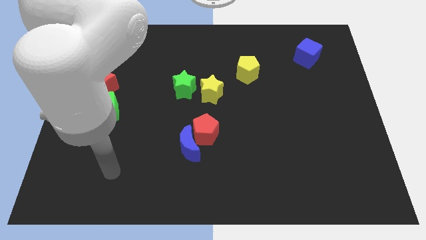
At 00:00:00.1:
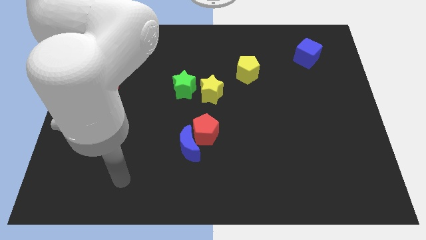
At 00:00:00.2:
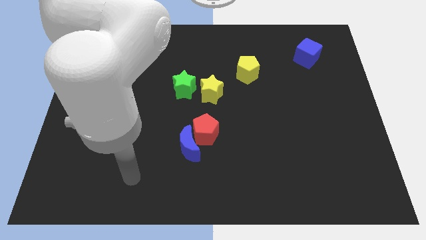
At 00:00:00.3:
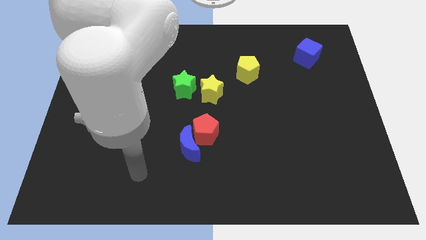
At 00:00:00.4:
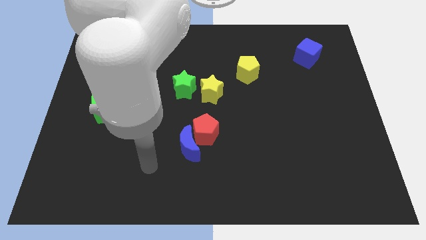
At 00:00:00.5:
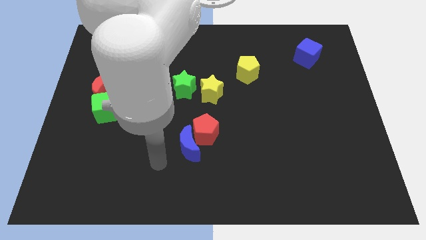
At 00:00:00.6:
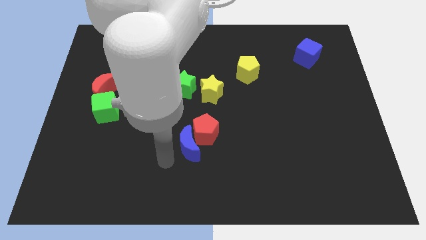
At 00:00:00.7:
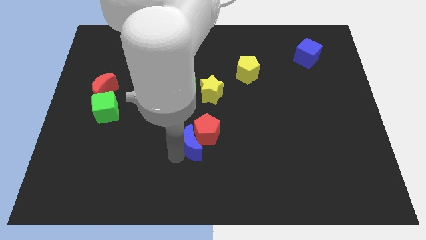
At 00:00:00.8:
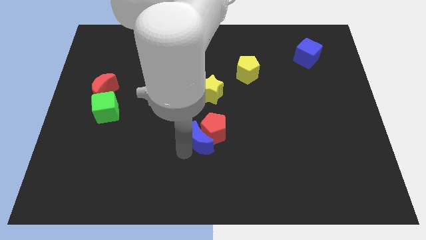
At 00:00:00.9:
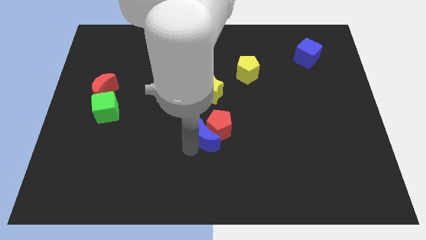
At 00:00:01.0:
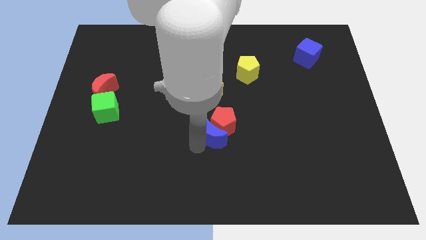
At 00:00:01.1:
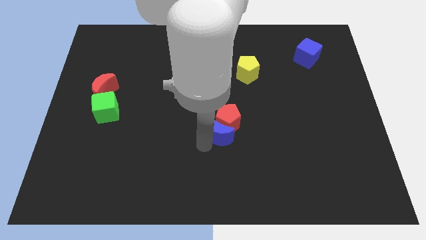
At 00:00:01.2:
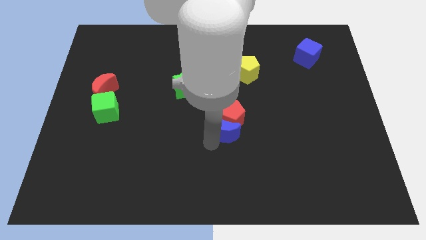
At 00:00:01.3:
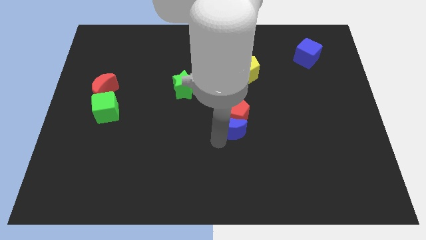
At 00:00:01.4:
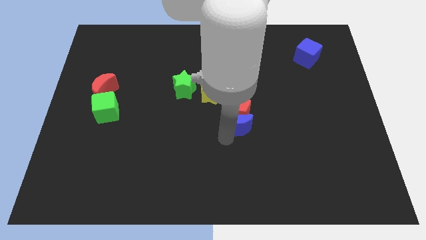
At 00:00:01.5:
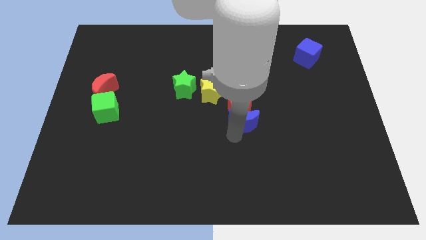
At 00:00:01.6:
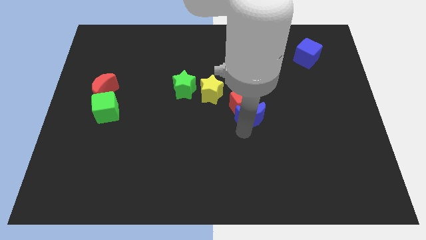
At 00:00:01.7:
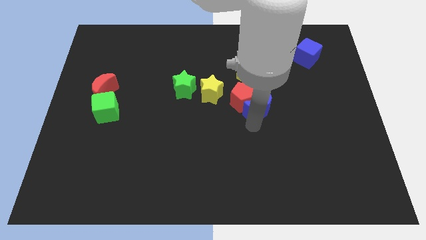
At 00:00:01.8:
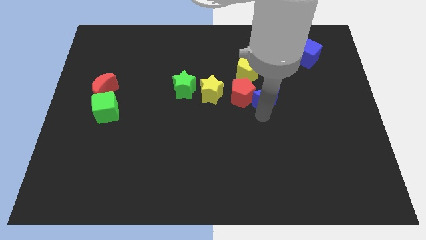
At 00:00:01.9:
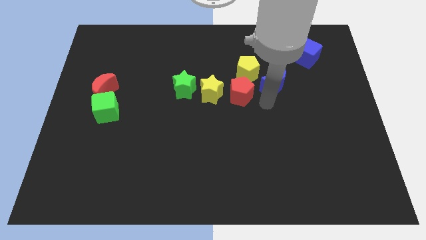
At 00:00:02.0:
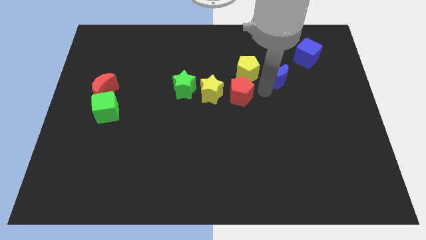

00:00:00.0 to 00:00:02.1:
pull the red pentagon apart from the blue moon

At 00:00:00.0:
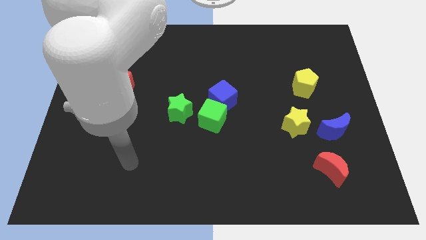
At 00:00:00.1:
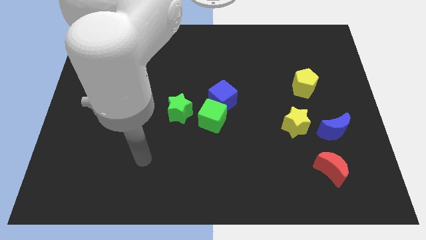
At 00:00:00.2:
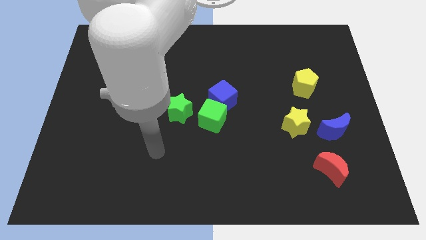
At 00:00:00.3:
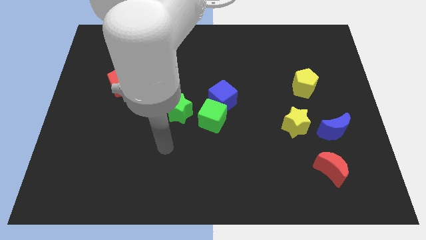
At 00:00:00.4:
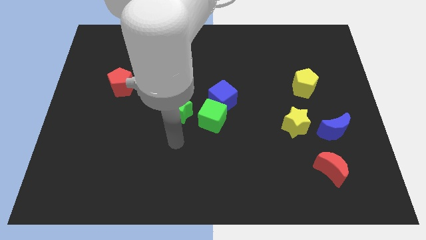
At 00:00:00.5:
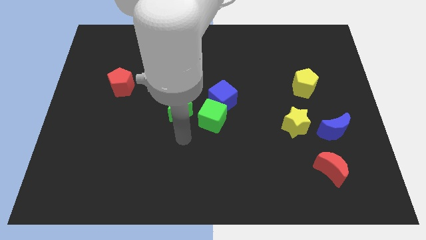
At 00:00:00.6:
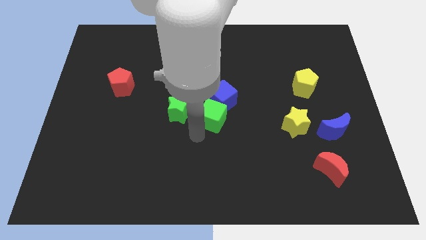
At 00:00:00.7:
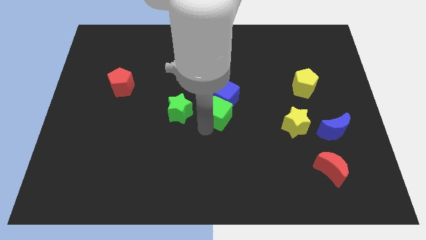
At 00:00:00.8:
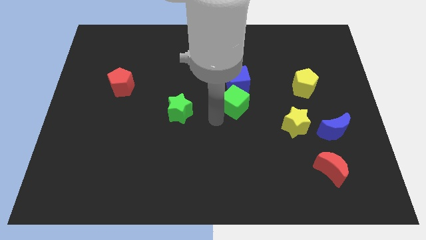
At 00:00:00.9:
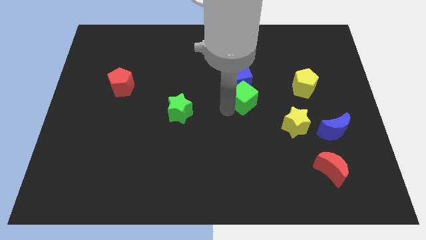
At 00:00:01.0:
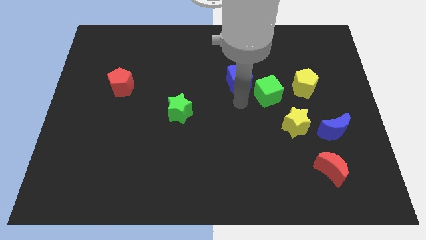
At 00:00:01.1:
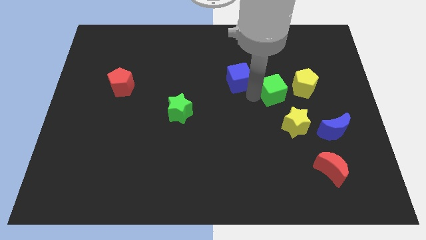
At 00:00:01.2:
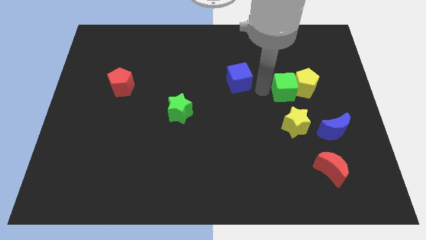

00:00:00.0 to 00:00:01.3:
separate the blue cube from the green cube

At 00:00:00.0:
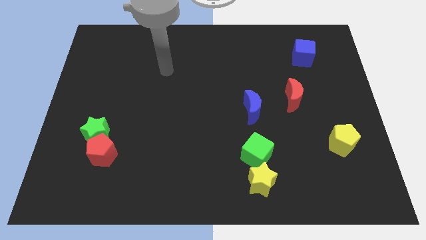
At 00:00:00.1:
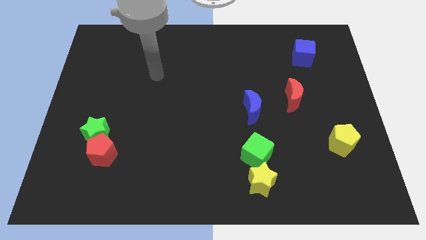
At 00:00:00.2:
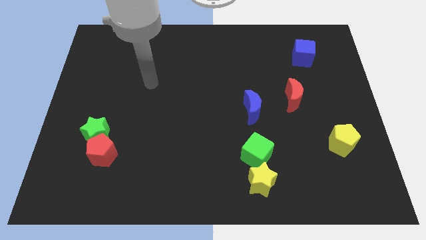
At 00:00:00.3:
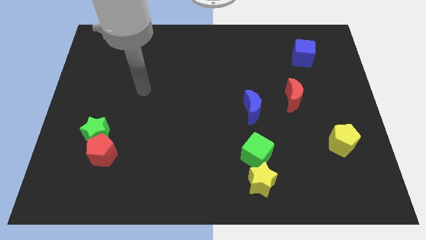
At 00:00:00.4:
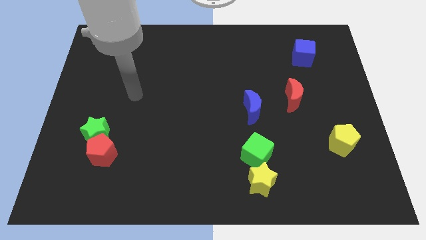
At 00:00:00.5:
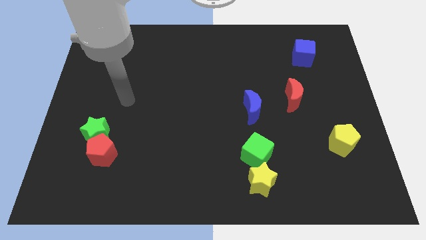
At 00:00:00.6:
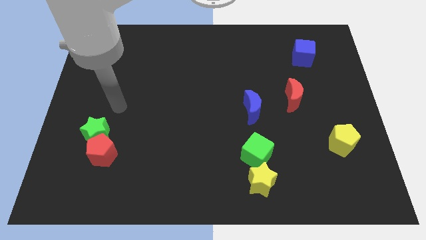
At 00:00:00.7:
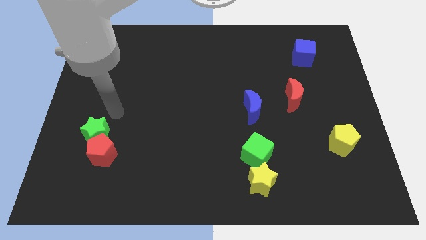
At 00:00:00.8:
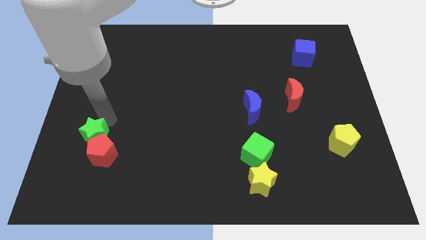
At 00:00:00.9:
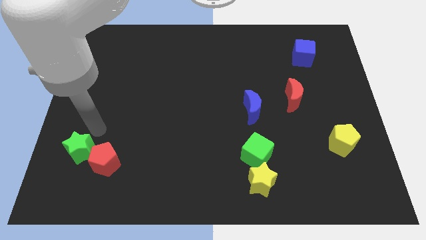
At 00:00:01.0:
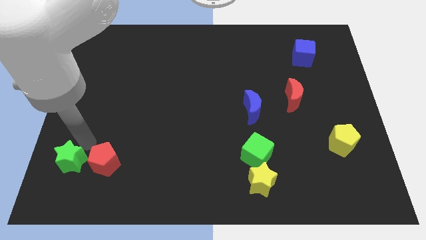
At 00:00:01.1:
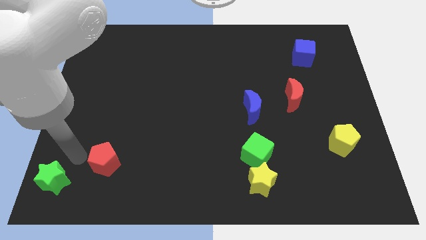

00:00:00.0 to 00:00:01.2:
move the red pentagon away from the green star

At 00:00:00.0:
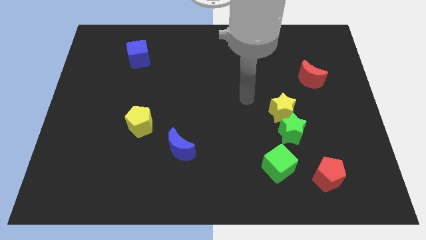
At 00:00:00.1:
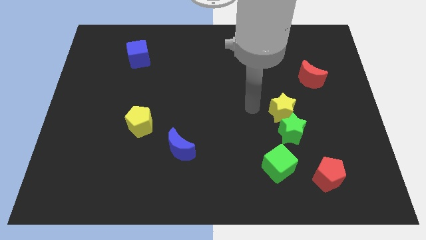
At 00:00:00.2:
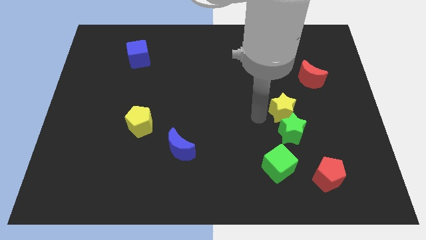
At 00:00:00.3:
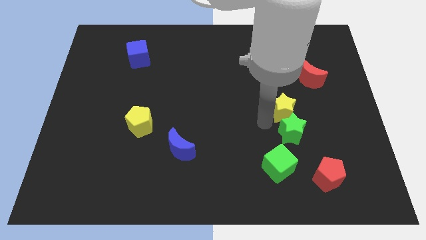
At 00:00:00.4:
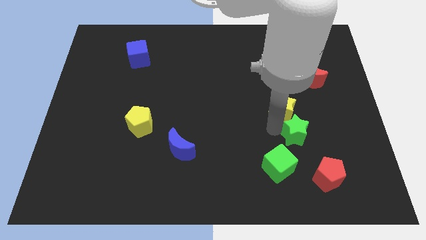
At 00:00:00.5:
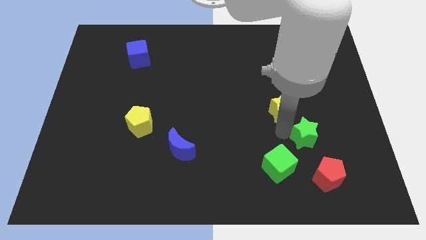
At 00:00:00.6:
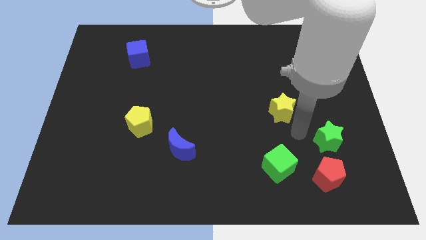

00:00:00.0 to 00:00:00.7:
pull the yellow star apart from the green star

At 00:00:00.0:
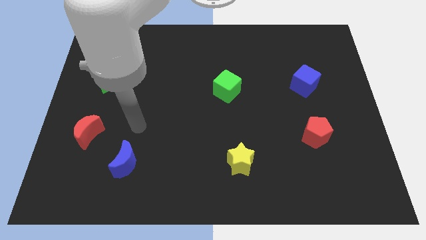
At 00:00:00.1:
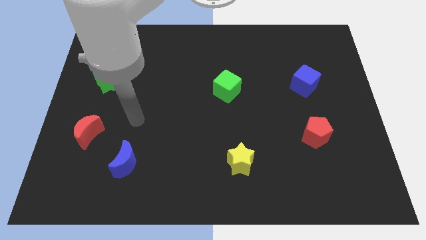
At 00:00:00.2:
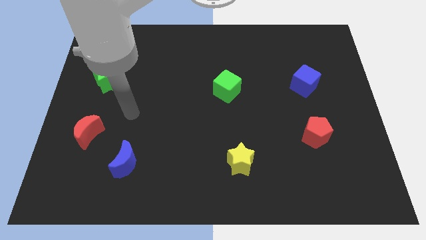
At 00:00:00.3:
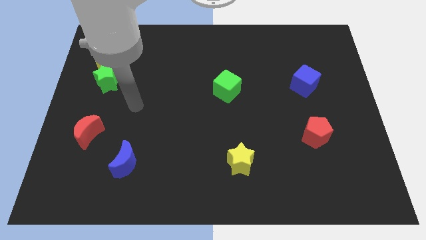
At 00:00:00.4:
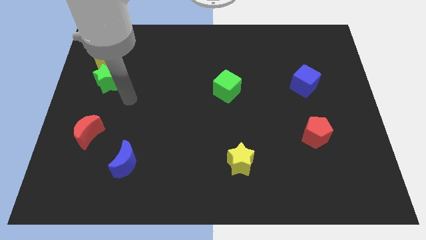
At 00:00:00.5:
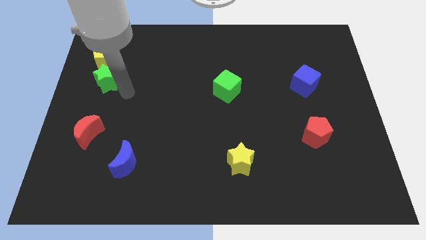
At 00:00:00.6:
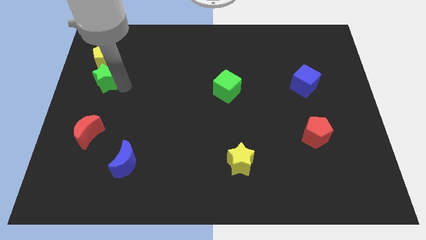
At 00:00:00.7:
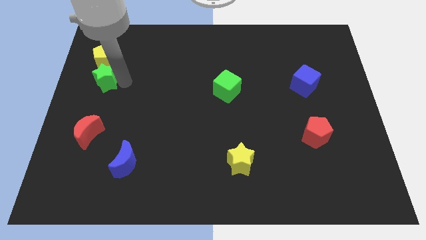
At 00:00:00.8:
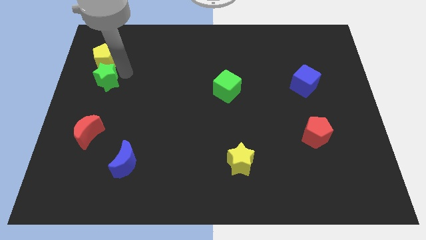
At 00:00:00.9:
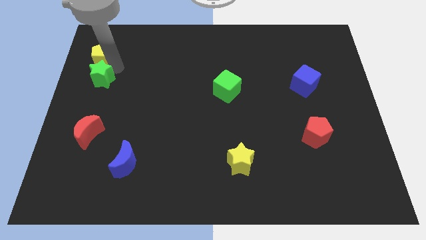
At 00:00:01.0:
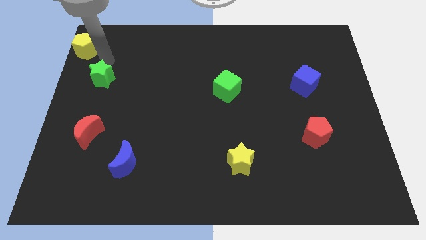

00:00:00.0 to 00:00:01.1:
move the green star away from the yellow pentagon

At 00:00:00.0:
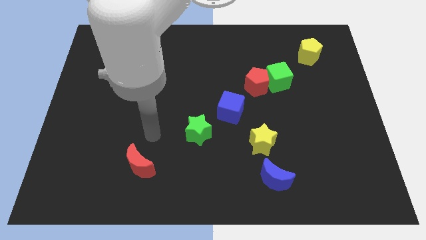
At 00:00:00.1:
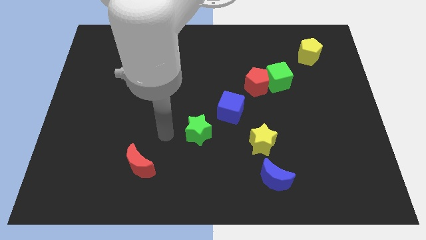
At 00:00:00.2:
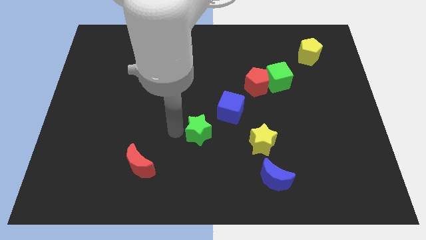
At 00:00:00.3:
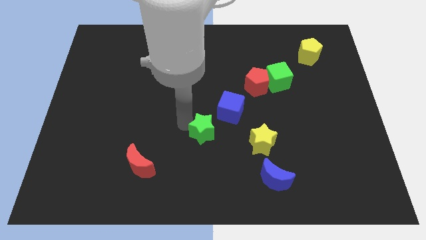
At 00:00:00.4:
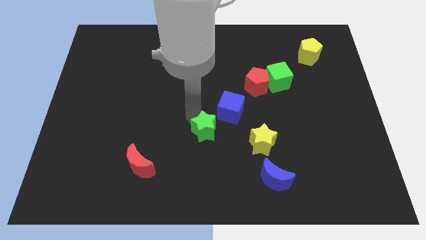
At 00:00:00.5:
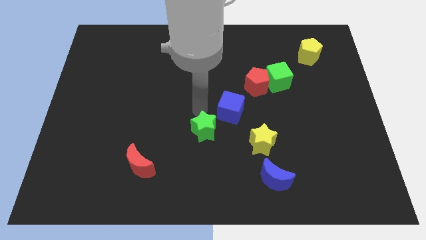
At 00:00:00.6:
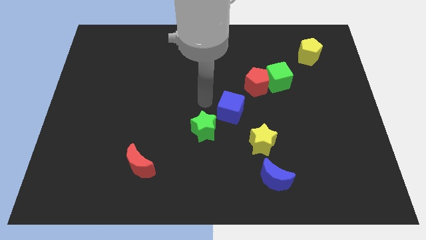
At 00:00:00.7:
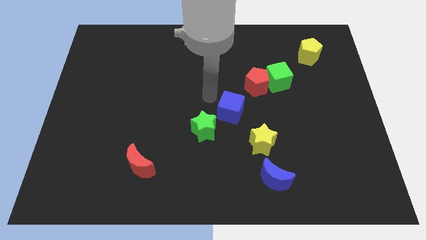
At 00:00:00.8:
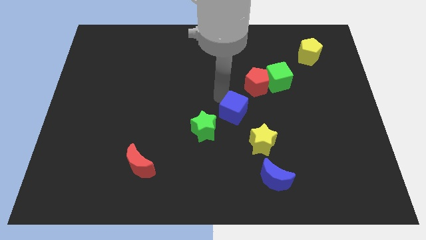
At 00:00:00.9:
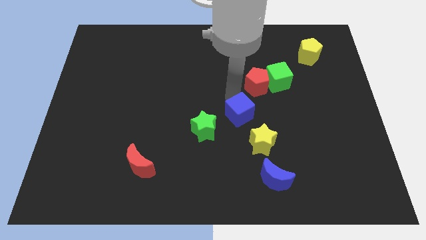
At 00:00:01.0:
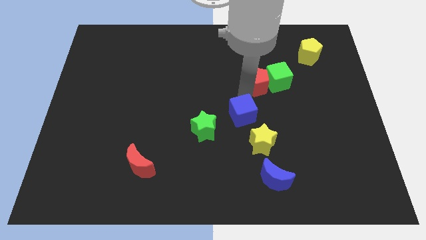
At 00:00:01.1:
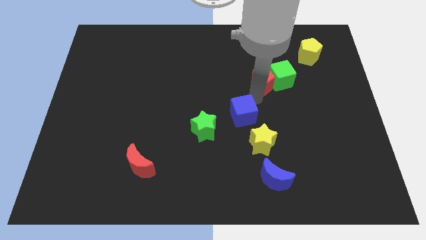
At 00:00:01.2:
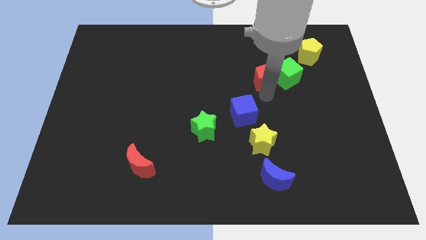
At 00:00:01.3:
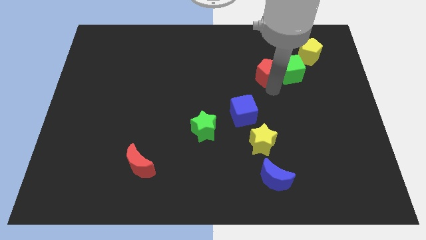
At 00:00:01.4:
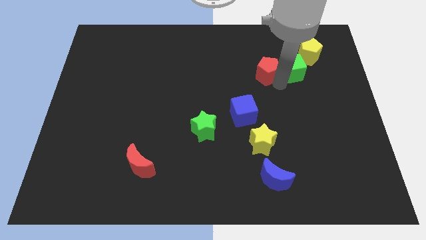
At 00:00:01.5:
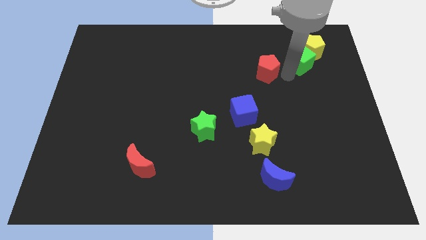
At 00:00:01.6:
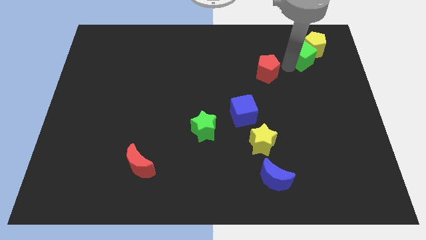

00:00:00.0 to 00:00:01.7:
pull the red pentagon apart from the green cube

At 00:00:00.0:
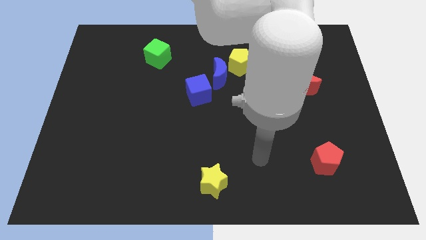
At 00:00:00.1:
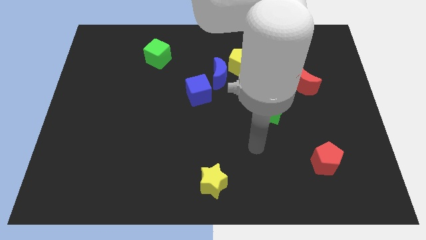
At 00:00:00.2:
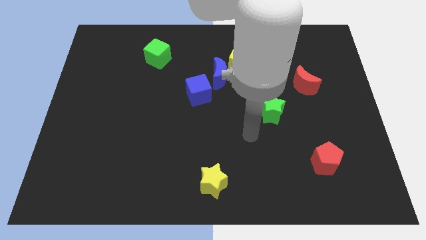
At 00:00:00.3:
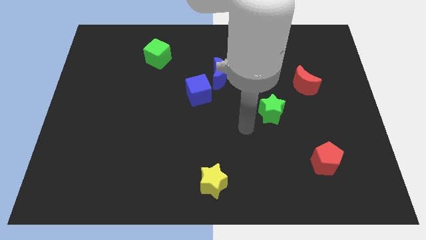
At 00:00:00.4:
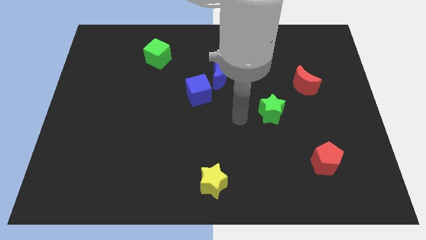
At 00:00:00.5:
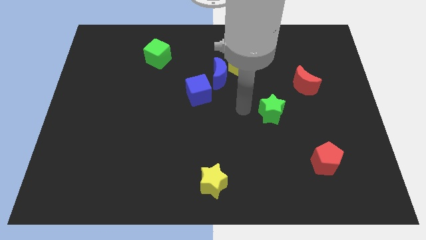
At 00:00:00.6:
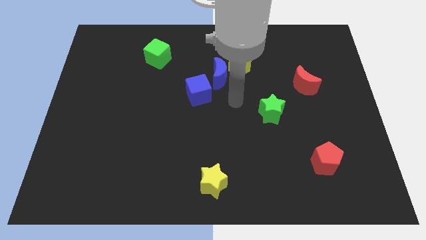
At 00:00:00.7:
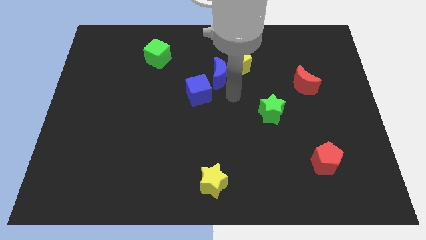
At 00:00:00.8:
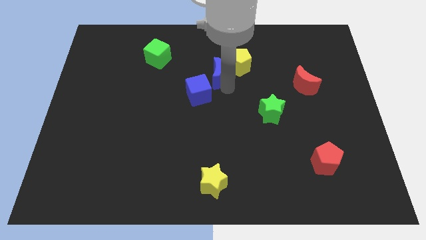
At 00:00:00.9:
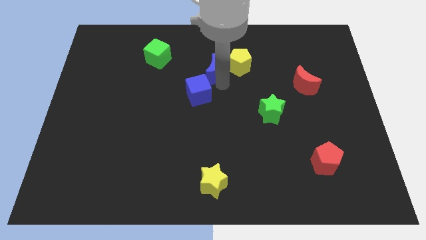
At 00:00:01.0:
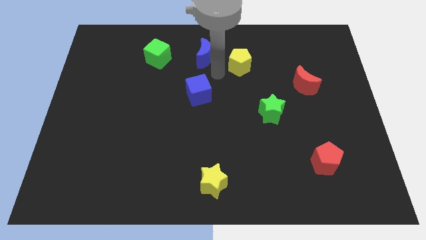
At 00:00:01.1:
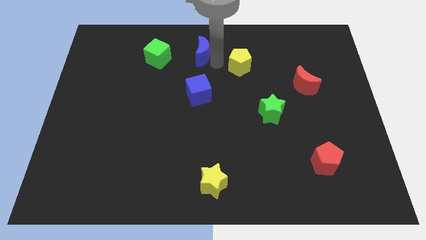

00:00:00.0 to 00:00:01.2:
move the yellow pentagon away from the blue moon
